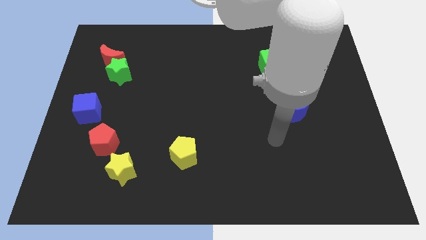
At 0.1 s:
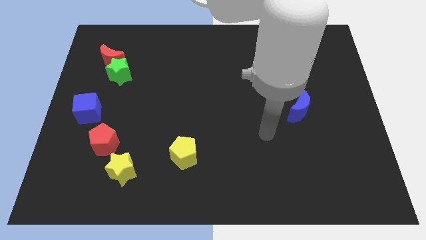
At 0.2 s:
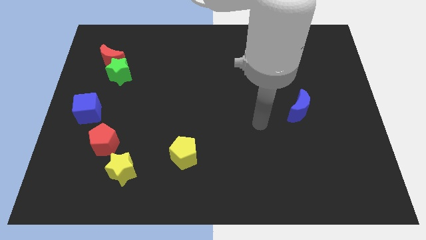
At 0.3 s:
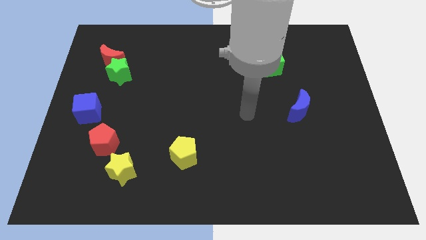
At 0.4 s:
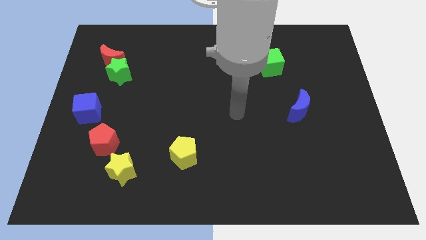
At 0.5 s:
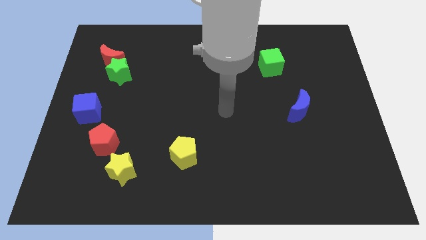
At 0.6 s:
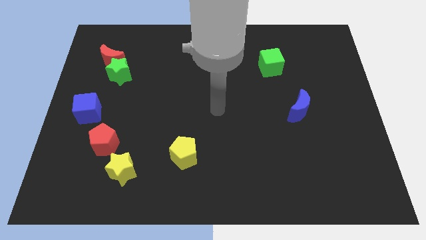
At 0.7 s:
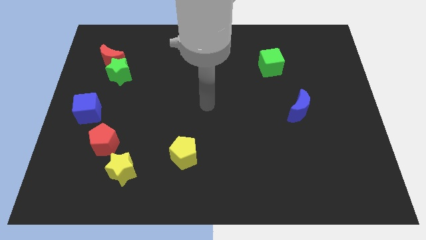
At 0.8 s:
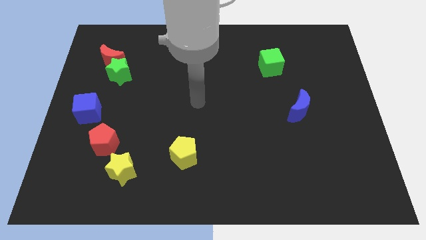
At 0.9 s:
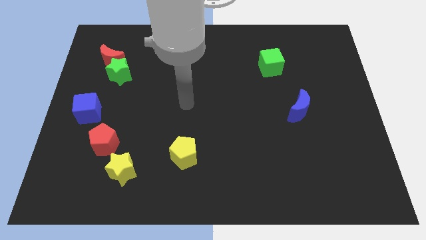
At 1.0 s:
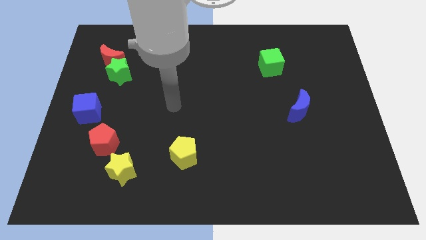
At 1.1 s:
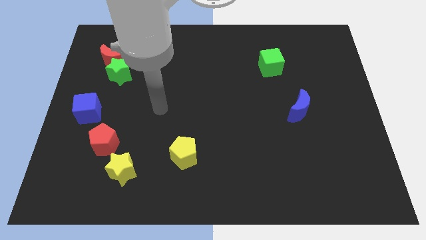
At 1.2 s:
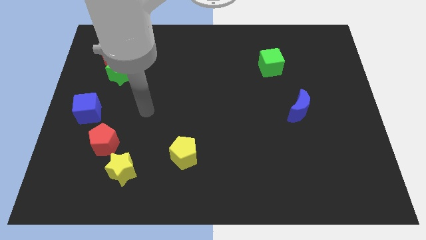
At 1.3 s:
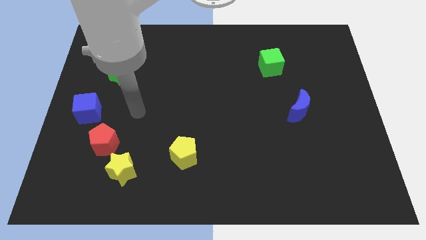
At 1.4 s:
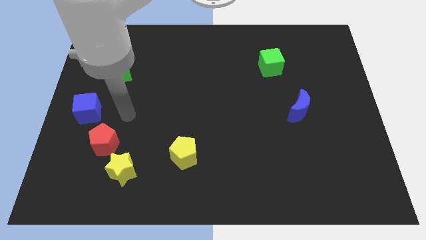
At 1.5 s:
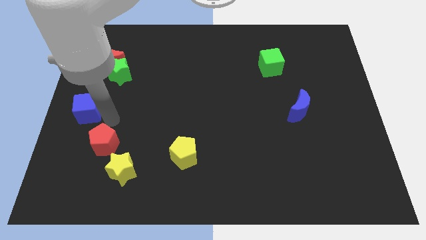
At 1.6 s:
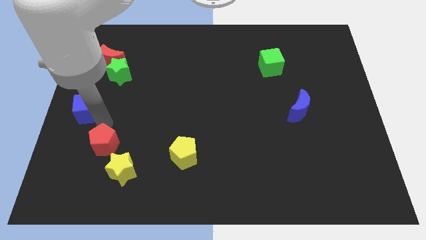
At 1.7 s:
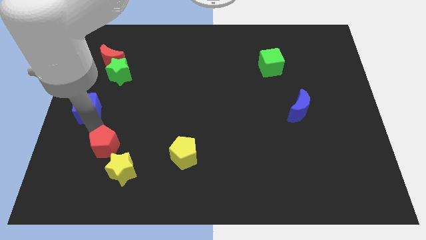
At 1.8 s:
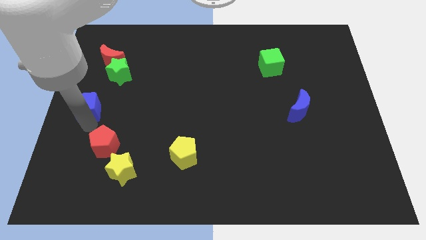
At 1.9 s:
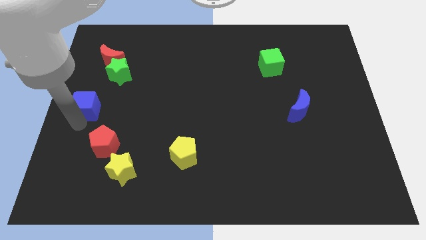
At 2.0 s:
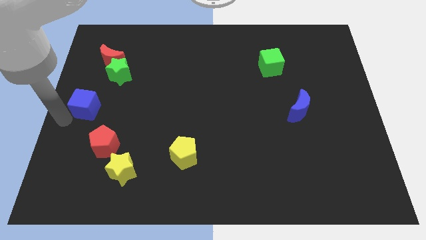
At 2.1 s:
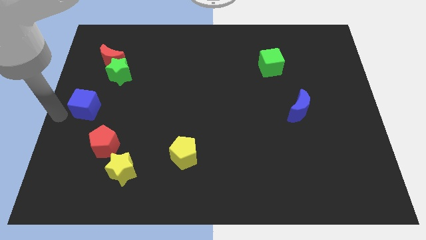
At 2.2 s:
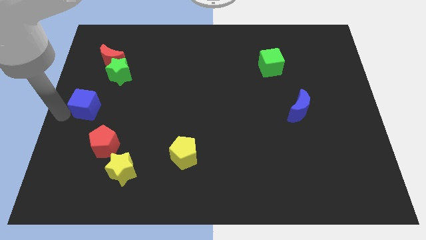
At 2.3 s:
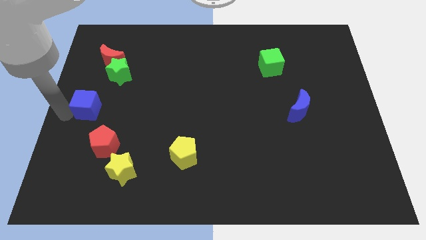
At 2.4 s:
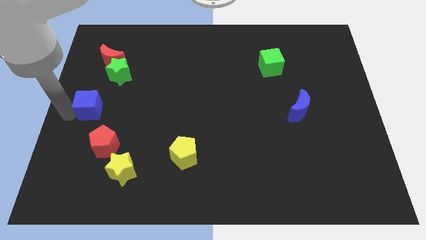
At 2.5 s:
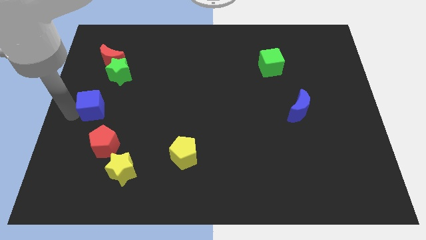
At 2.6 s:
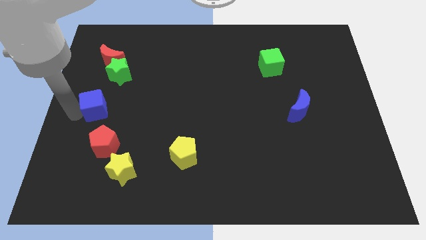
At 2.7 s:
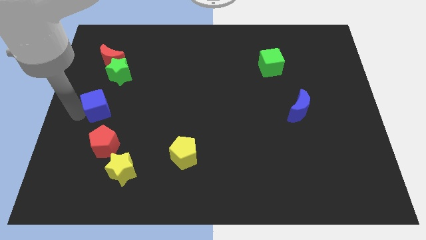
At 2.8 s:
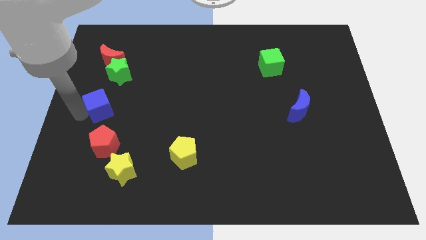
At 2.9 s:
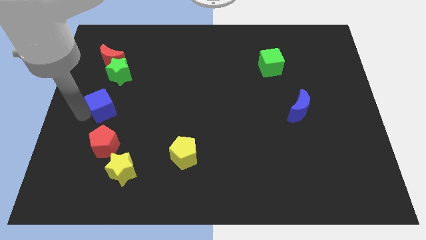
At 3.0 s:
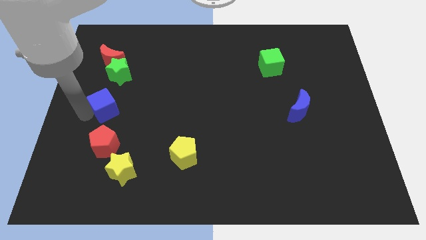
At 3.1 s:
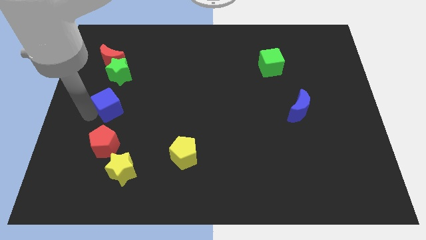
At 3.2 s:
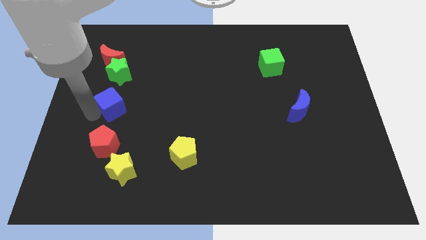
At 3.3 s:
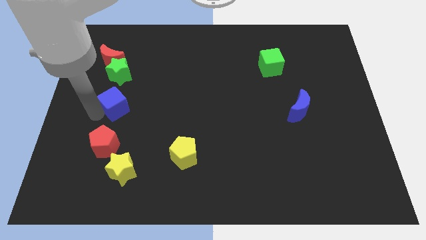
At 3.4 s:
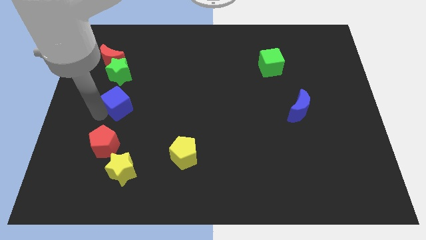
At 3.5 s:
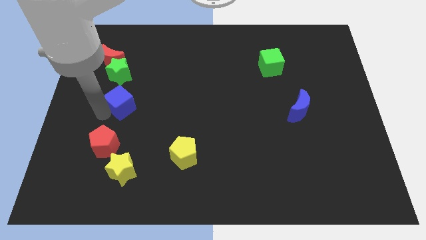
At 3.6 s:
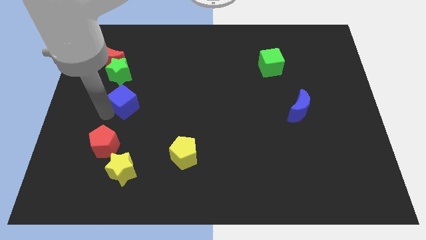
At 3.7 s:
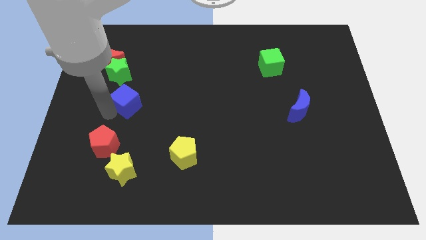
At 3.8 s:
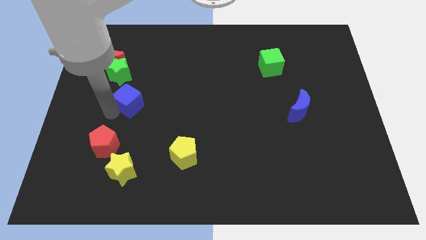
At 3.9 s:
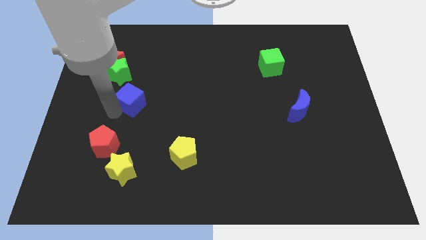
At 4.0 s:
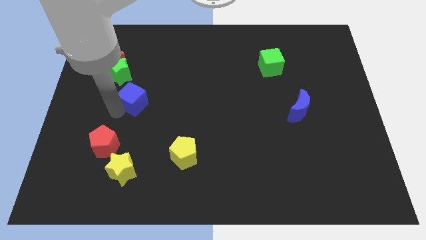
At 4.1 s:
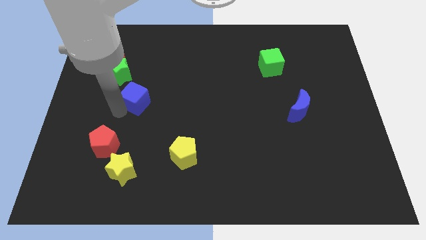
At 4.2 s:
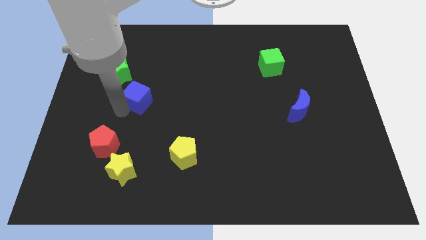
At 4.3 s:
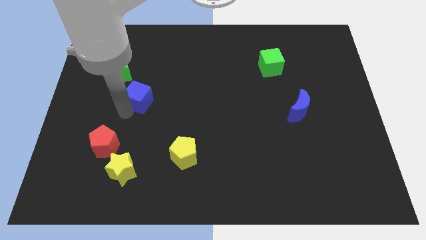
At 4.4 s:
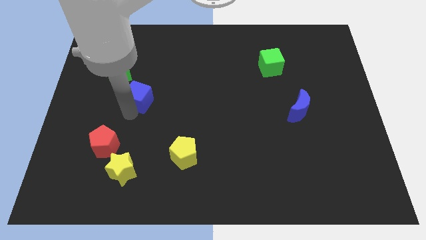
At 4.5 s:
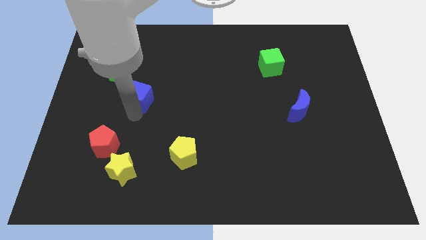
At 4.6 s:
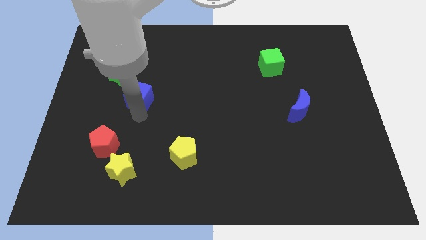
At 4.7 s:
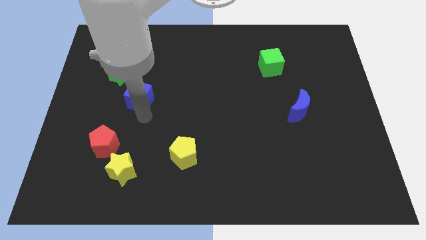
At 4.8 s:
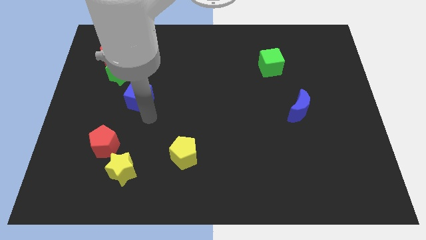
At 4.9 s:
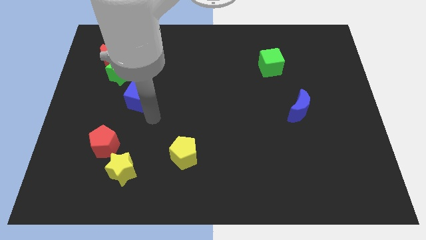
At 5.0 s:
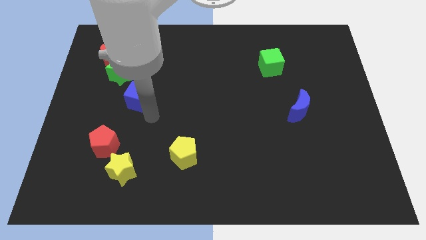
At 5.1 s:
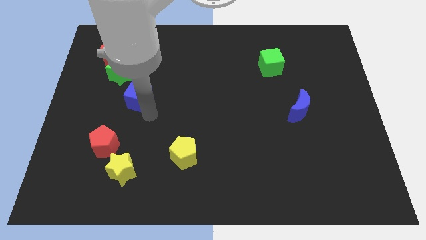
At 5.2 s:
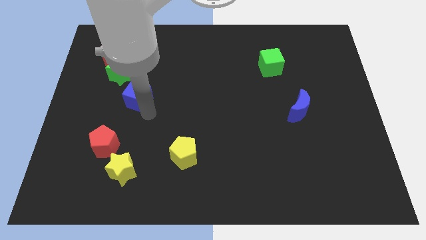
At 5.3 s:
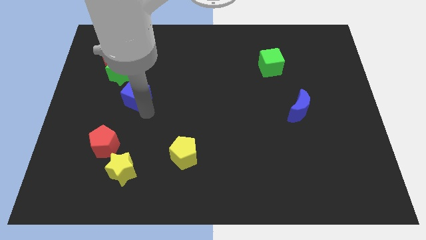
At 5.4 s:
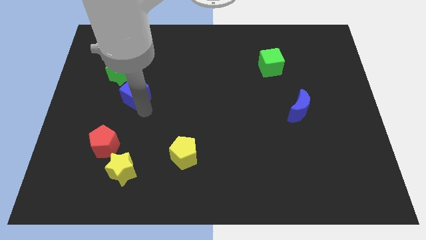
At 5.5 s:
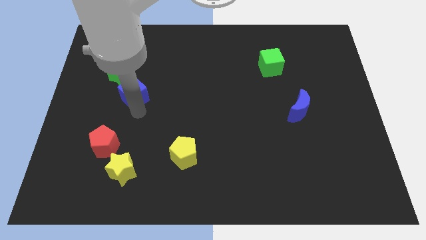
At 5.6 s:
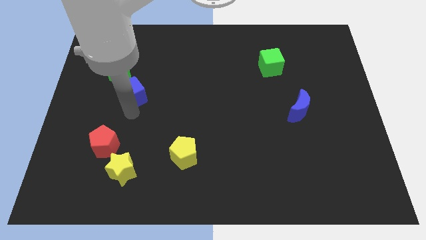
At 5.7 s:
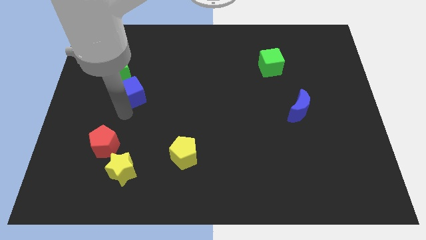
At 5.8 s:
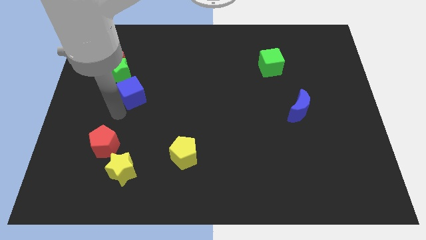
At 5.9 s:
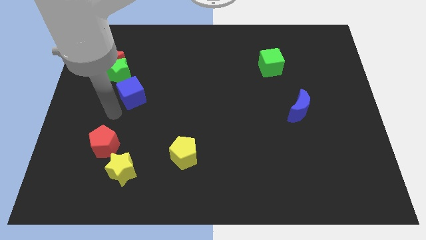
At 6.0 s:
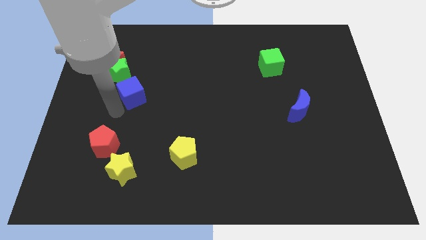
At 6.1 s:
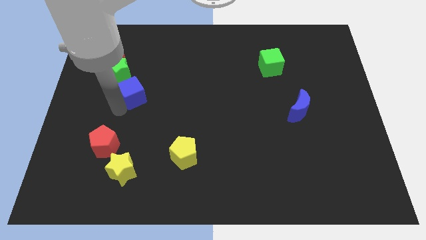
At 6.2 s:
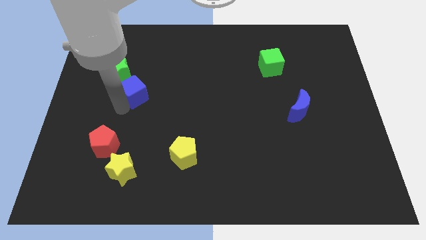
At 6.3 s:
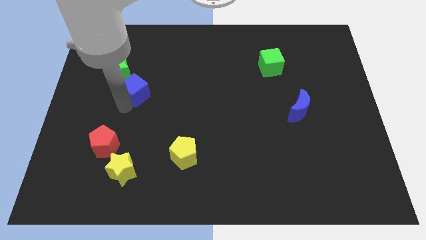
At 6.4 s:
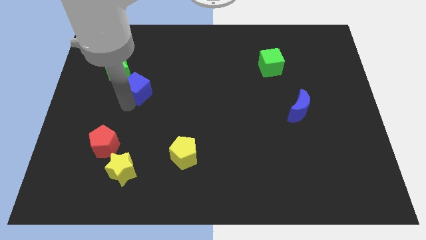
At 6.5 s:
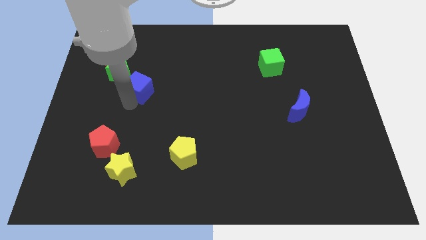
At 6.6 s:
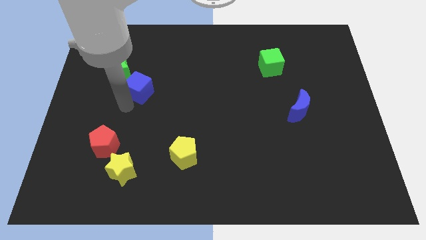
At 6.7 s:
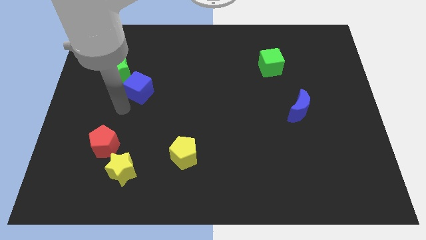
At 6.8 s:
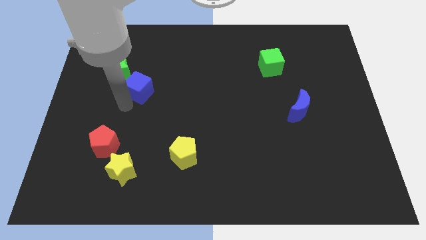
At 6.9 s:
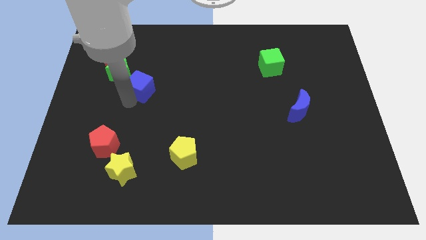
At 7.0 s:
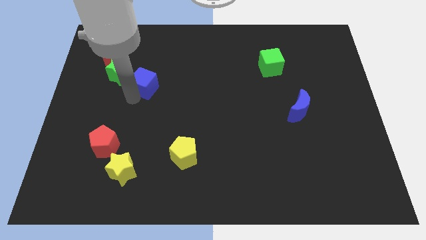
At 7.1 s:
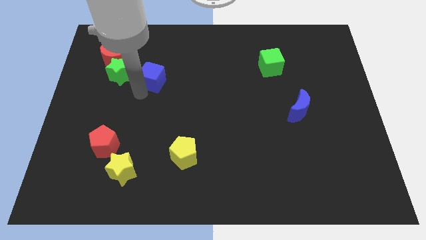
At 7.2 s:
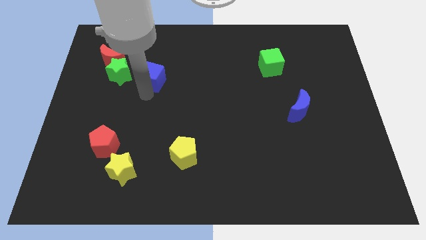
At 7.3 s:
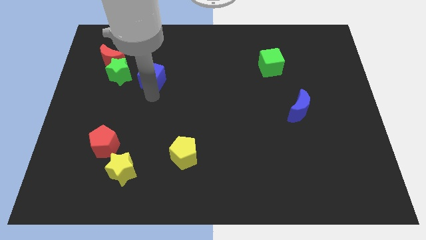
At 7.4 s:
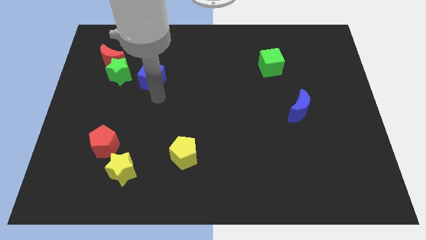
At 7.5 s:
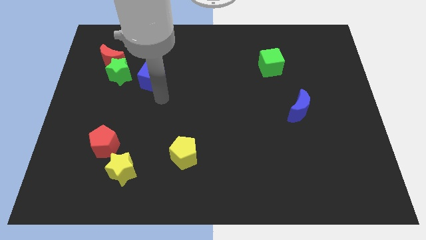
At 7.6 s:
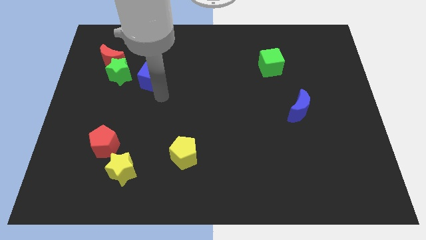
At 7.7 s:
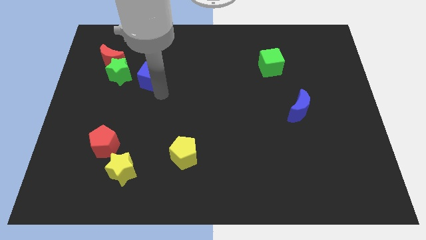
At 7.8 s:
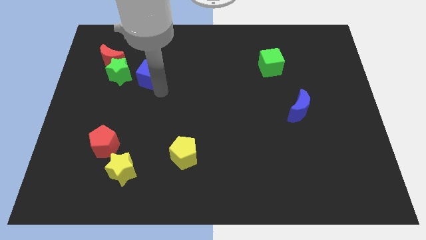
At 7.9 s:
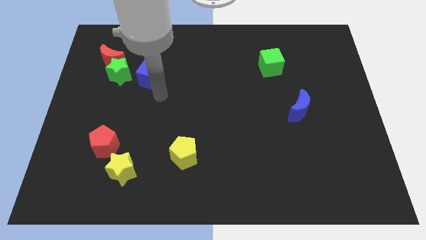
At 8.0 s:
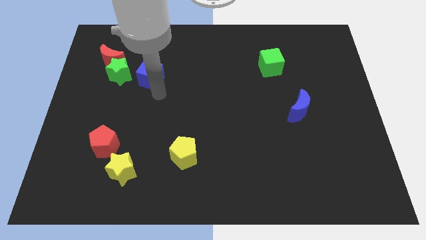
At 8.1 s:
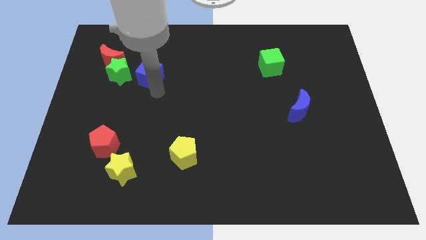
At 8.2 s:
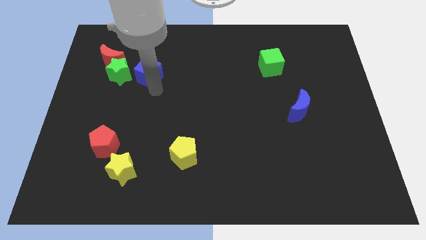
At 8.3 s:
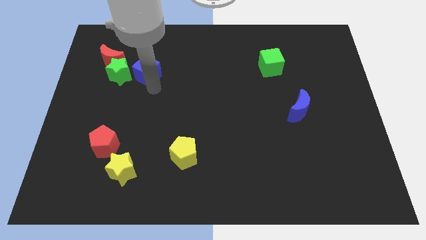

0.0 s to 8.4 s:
slide the blue cube diagonally up and to the right of the green star

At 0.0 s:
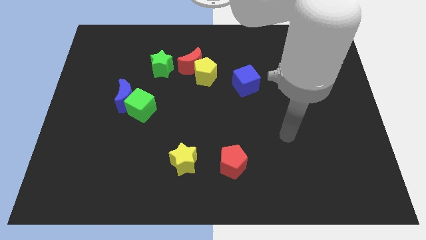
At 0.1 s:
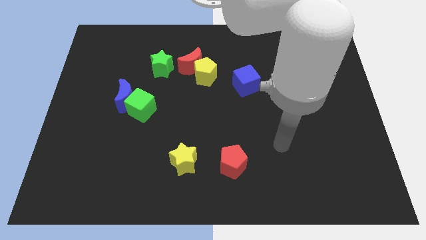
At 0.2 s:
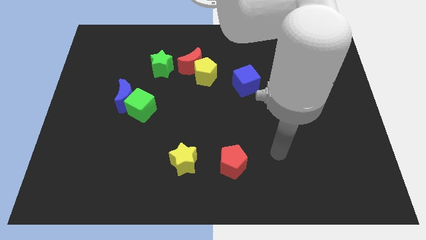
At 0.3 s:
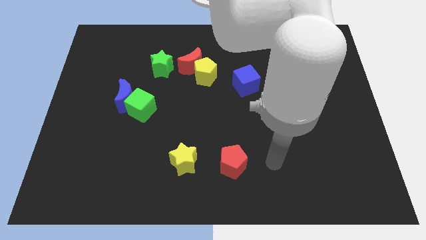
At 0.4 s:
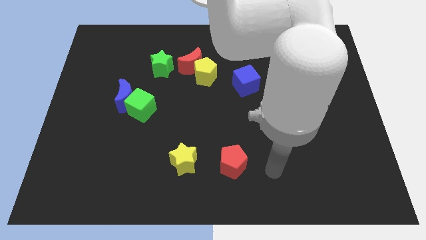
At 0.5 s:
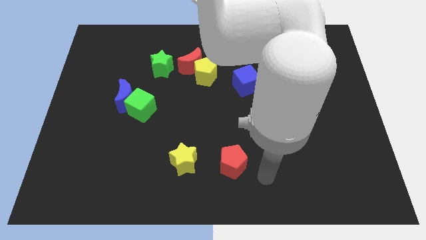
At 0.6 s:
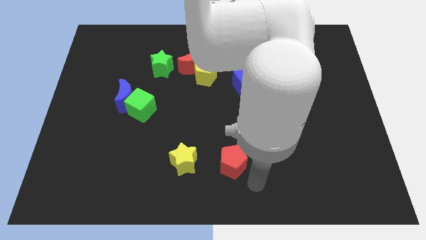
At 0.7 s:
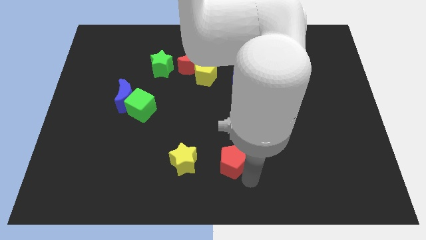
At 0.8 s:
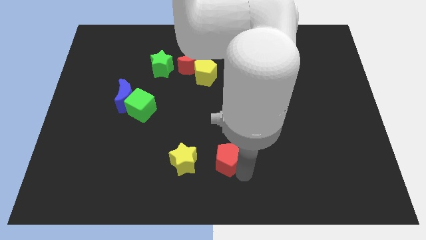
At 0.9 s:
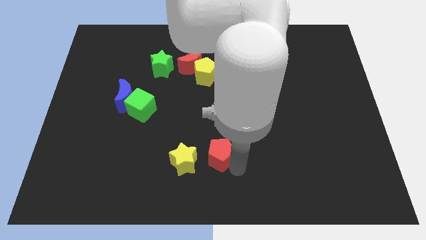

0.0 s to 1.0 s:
put the red pentagon diagonally up and to the right of the yellow star
